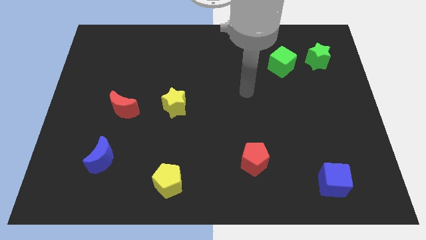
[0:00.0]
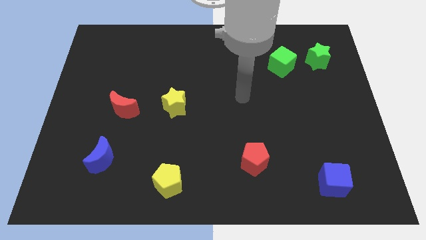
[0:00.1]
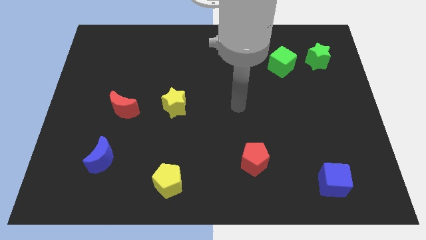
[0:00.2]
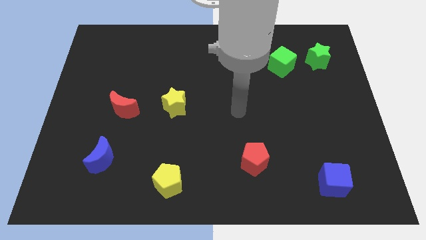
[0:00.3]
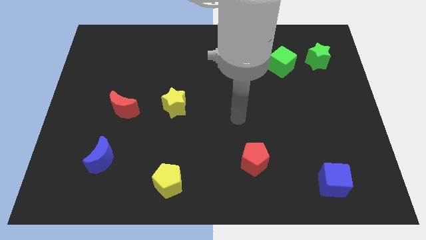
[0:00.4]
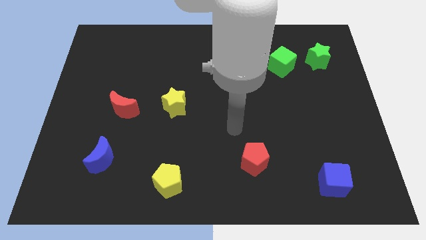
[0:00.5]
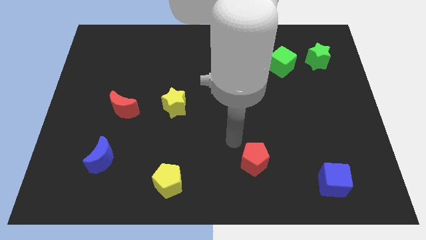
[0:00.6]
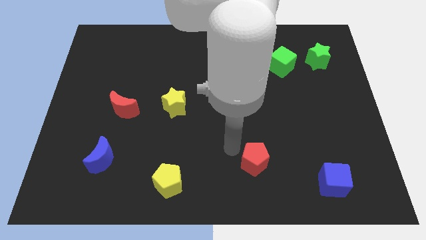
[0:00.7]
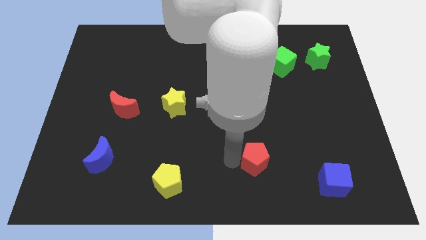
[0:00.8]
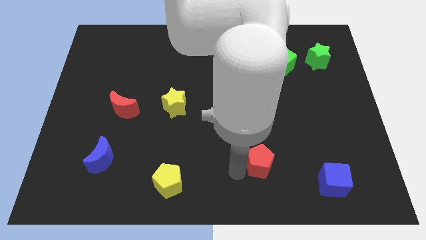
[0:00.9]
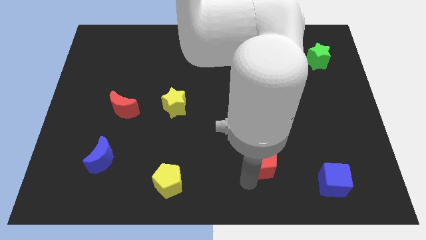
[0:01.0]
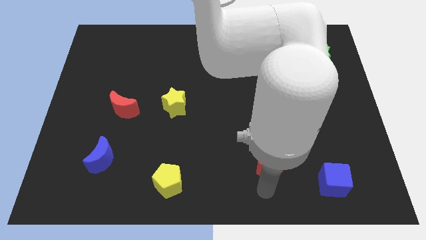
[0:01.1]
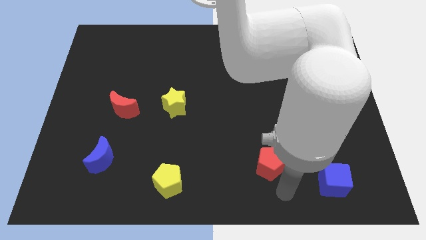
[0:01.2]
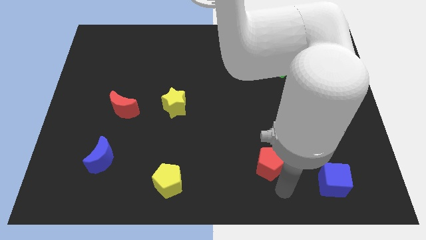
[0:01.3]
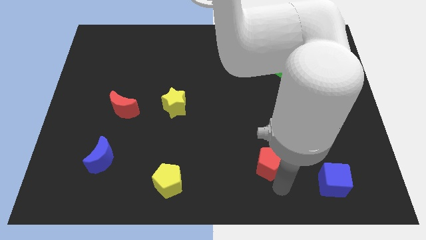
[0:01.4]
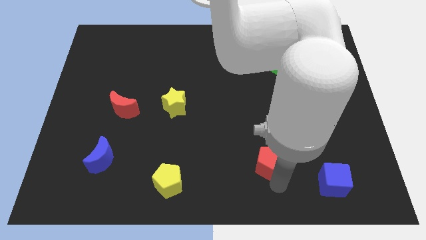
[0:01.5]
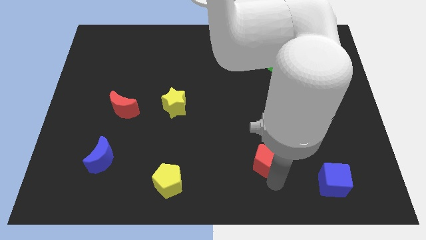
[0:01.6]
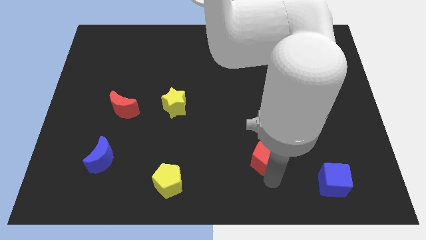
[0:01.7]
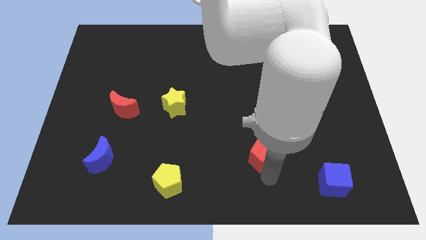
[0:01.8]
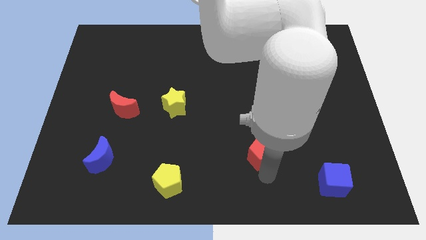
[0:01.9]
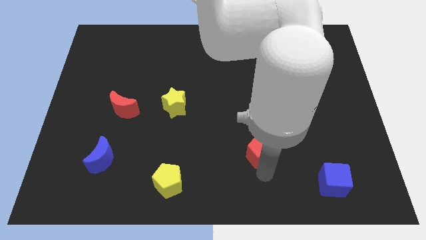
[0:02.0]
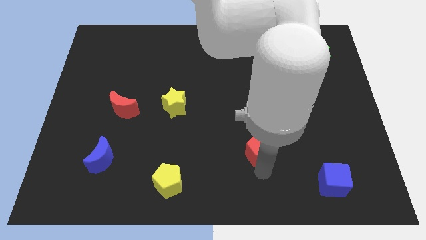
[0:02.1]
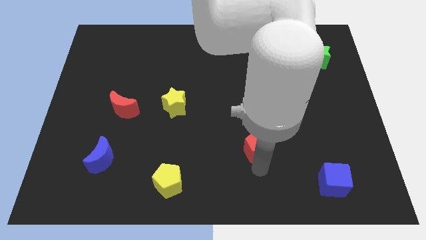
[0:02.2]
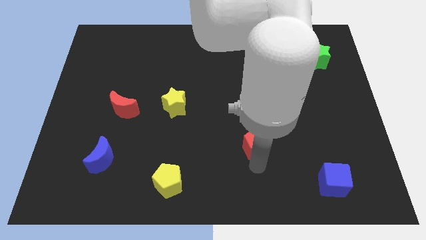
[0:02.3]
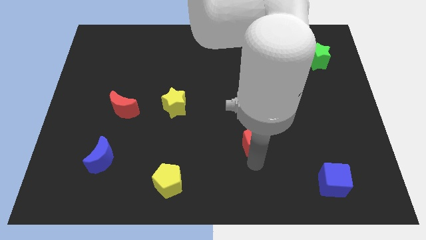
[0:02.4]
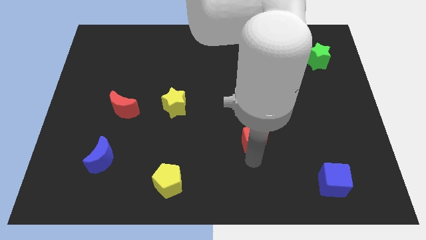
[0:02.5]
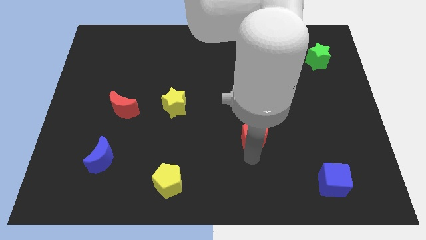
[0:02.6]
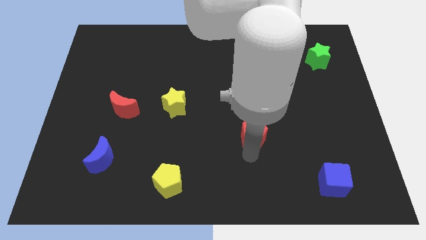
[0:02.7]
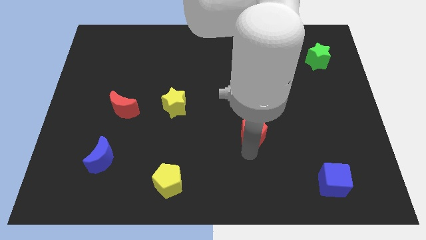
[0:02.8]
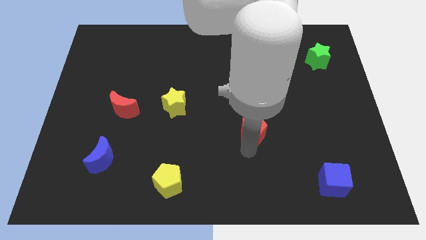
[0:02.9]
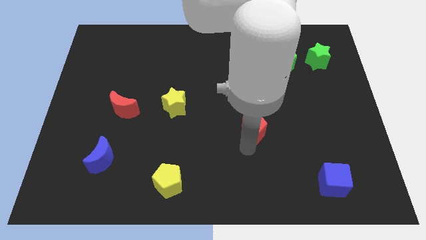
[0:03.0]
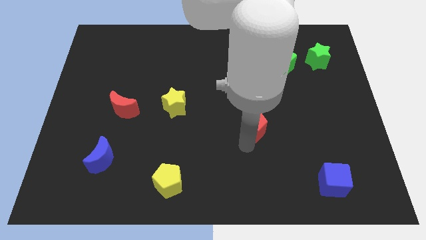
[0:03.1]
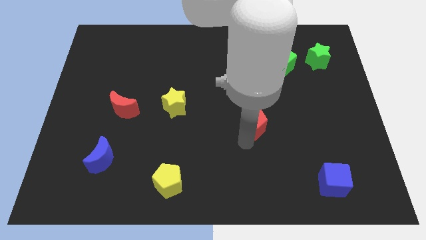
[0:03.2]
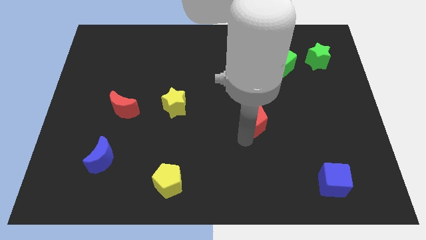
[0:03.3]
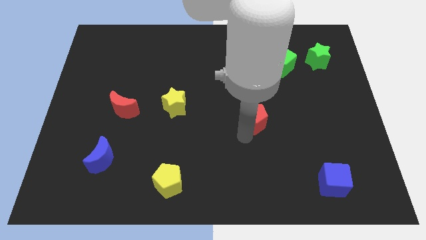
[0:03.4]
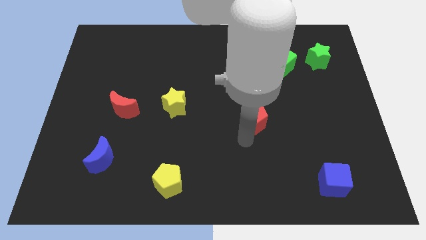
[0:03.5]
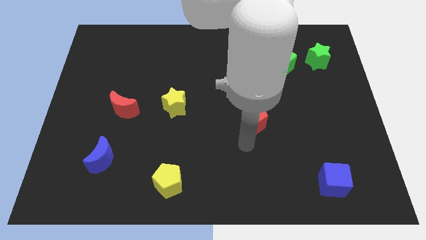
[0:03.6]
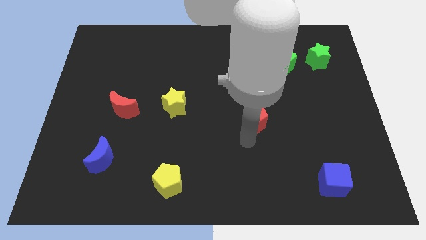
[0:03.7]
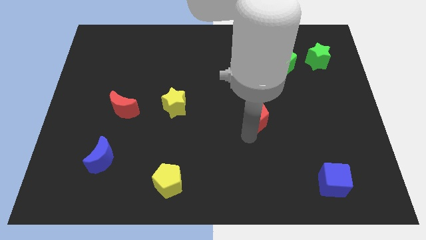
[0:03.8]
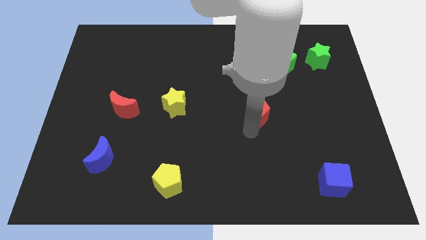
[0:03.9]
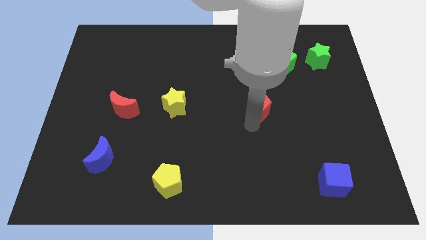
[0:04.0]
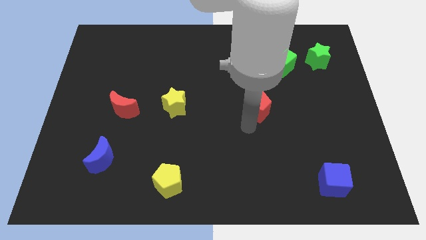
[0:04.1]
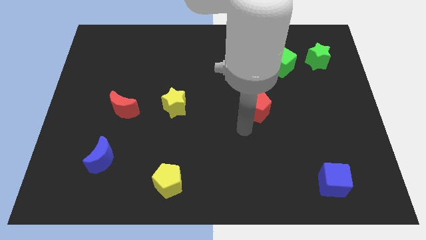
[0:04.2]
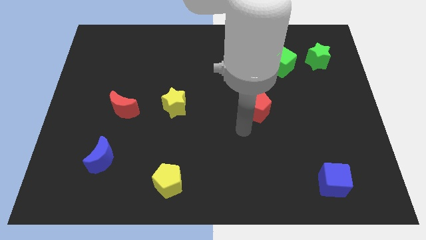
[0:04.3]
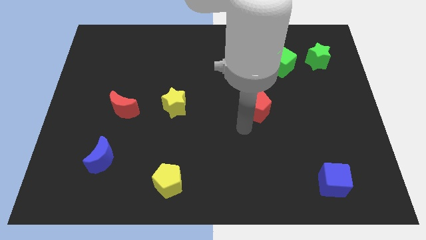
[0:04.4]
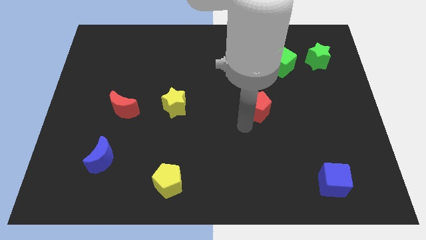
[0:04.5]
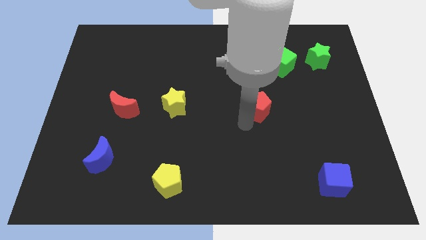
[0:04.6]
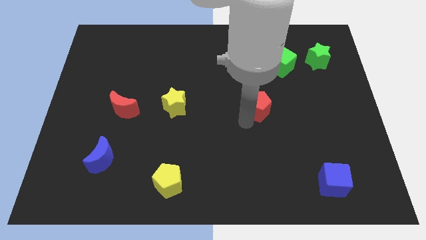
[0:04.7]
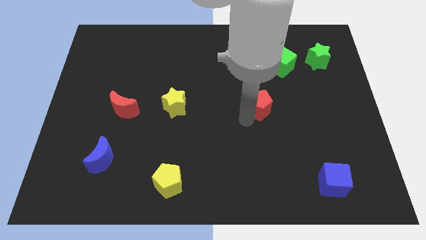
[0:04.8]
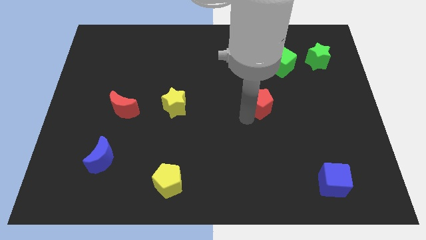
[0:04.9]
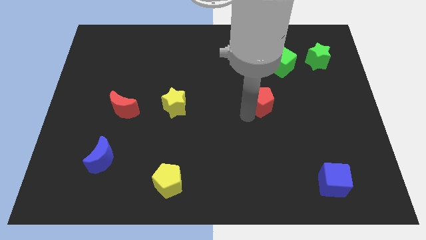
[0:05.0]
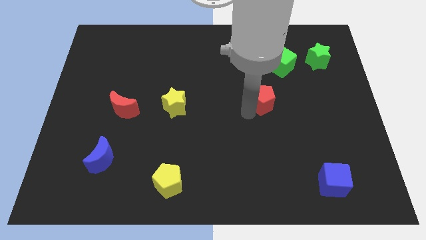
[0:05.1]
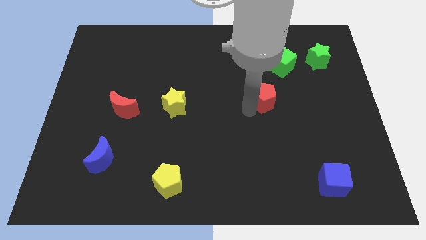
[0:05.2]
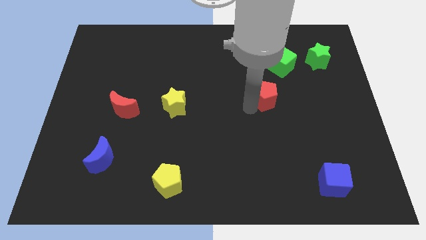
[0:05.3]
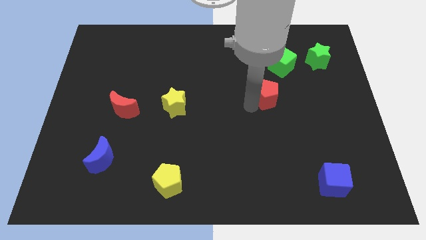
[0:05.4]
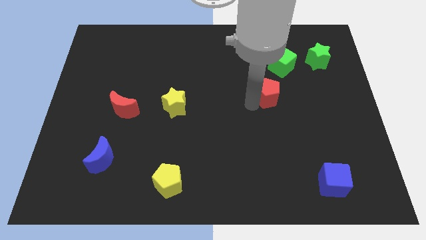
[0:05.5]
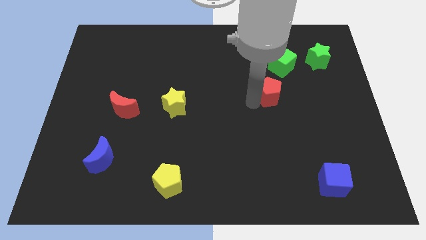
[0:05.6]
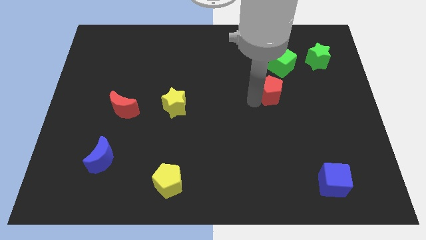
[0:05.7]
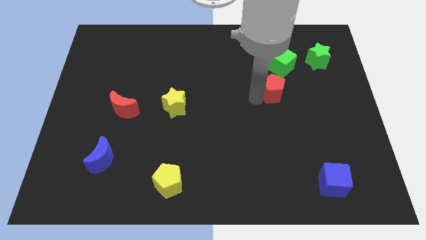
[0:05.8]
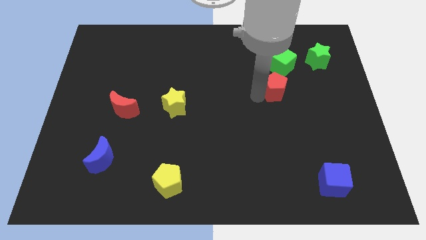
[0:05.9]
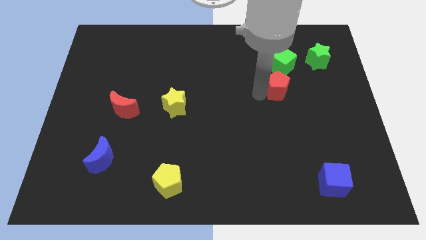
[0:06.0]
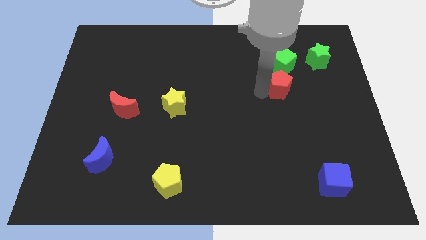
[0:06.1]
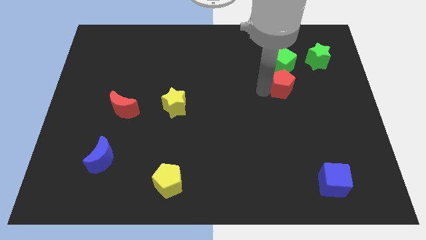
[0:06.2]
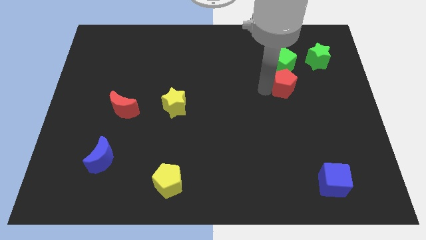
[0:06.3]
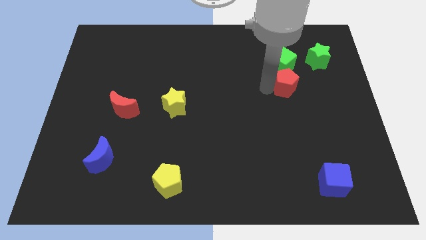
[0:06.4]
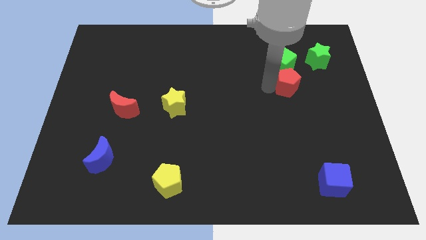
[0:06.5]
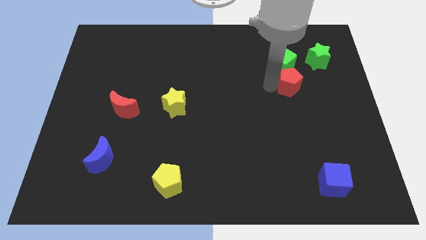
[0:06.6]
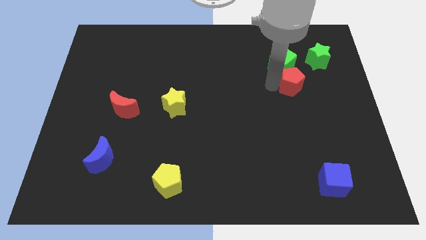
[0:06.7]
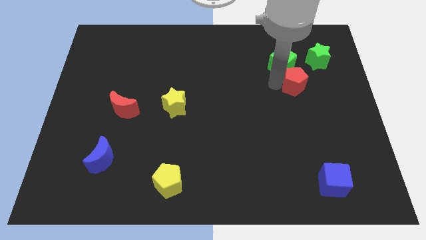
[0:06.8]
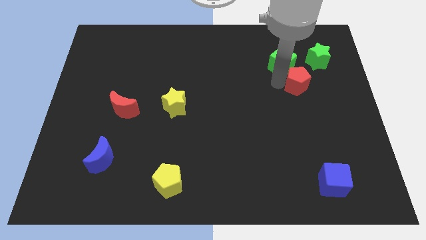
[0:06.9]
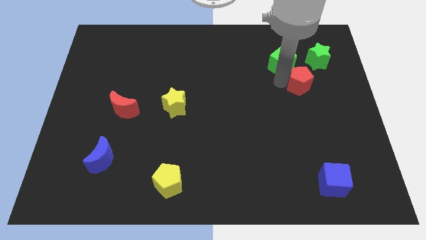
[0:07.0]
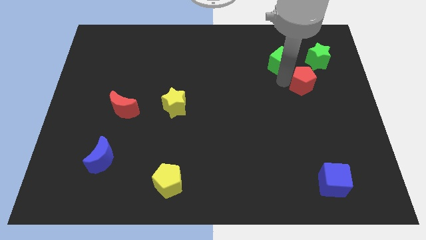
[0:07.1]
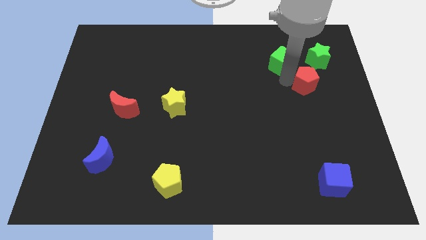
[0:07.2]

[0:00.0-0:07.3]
put the red pentagon to the bottom of the green star
